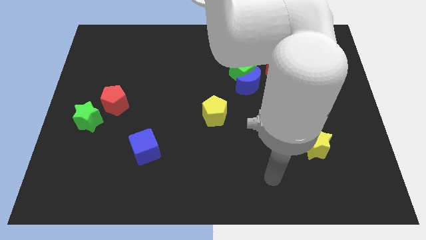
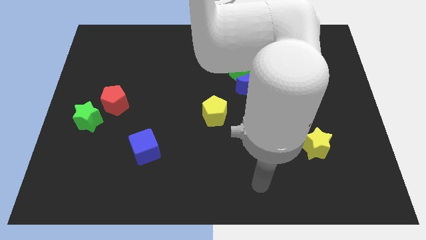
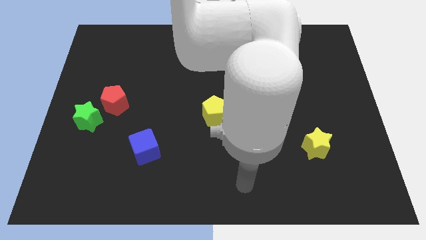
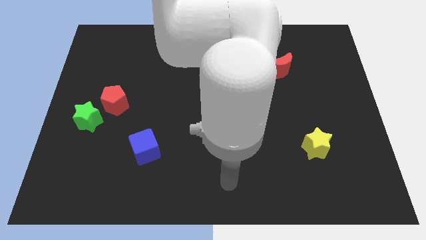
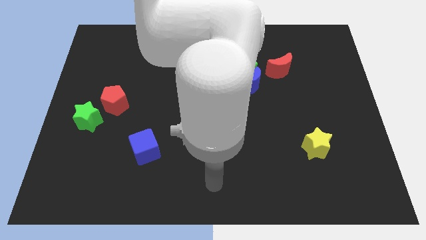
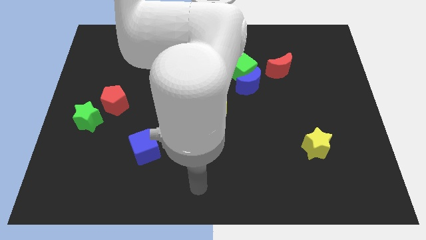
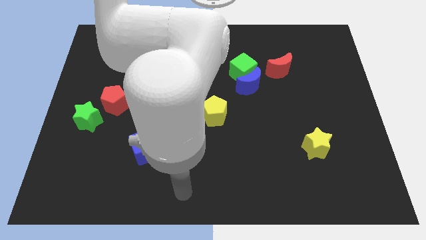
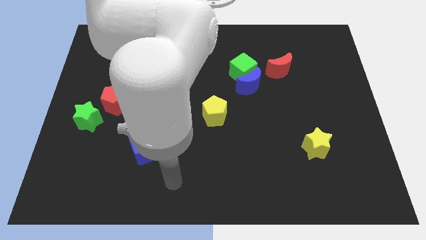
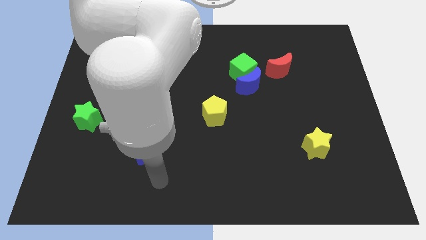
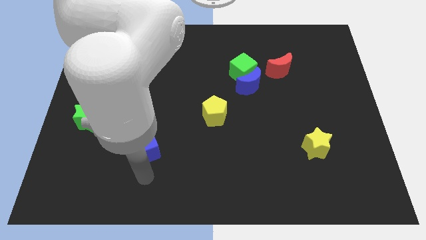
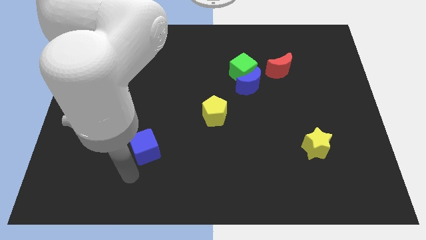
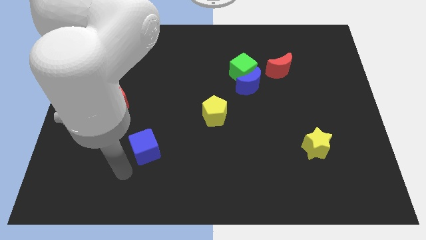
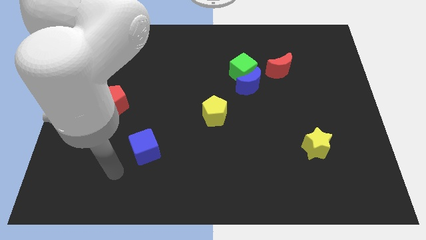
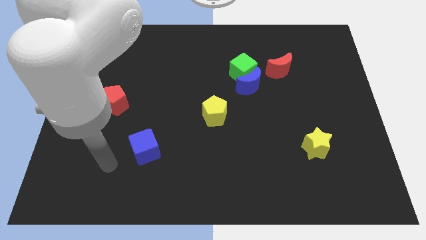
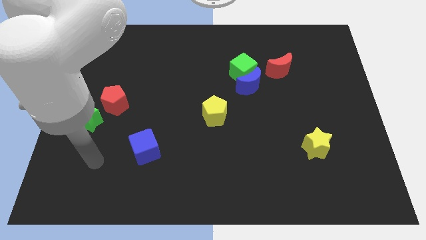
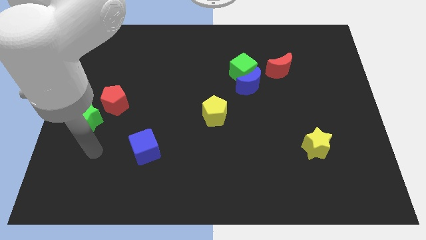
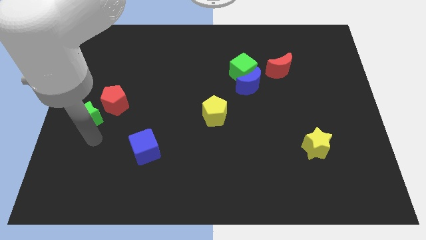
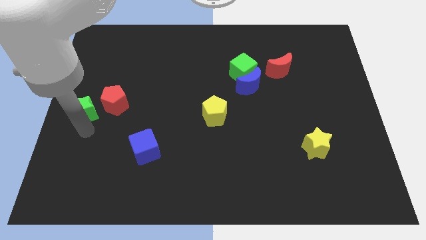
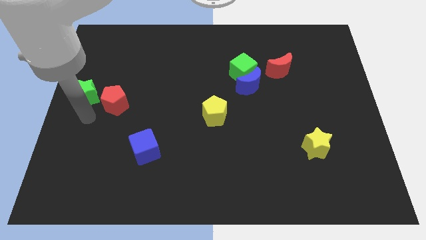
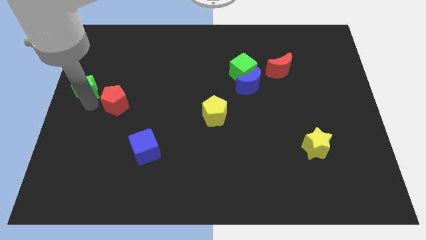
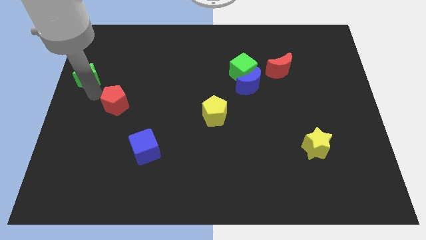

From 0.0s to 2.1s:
move the red pentagon away from the green star

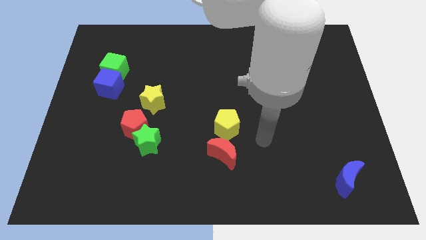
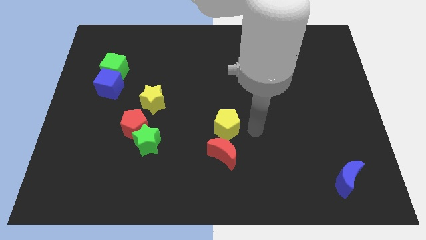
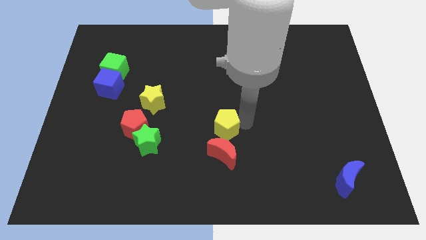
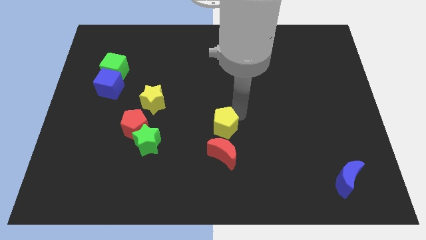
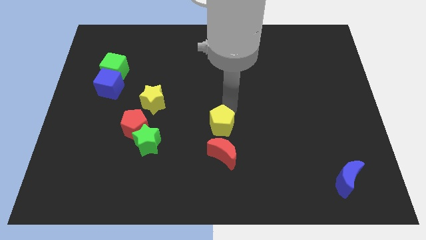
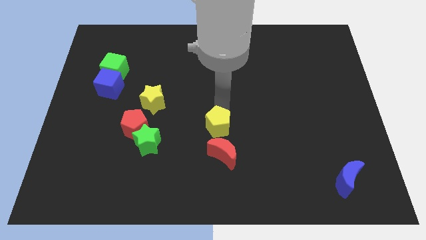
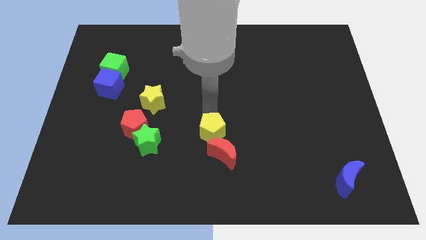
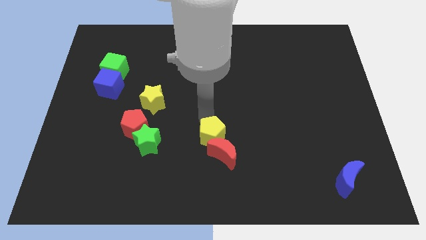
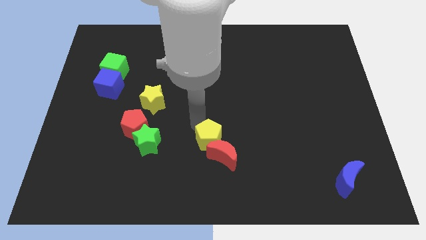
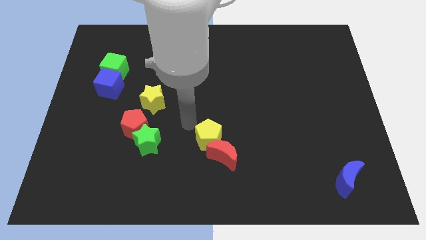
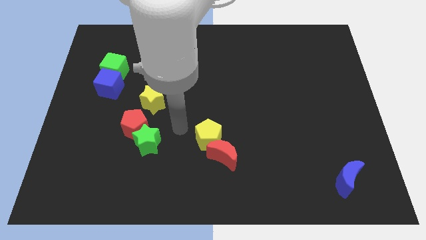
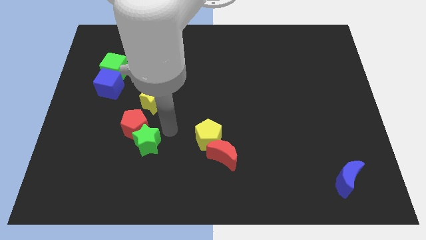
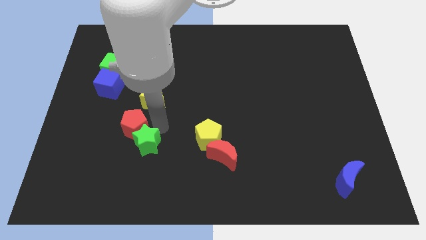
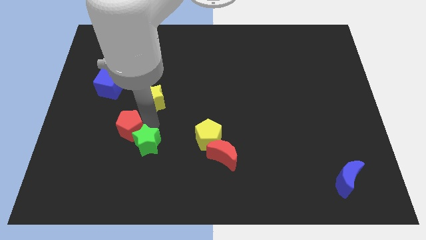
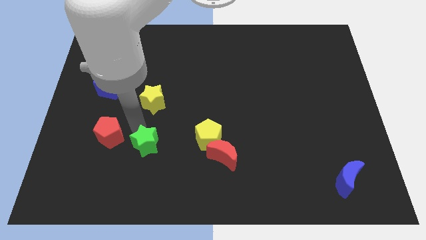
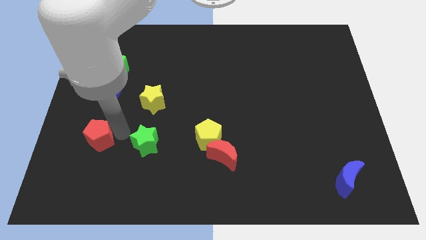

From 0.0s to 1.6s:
separate the green star from the red pentagon

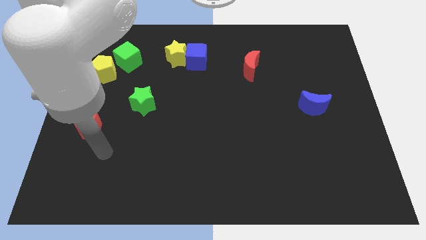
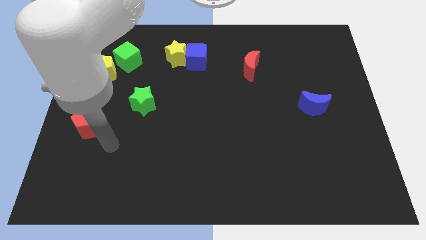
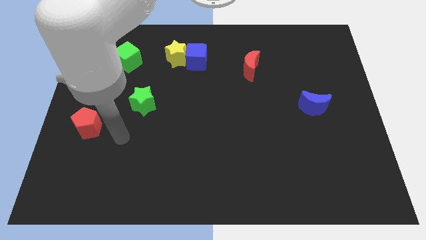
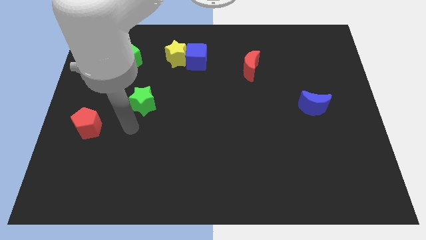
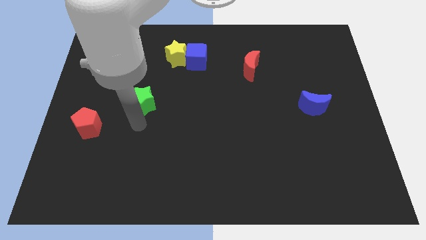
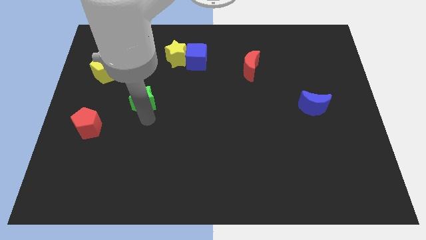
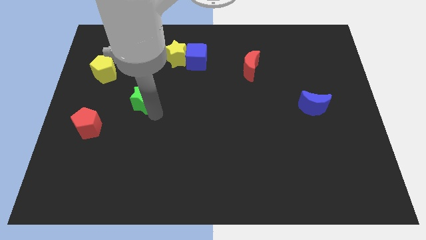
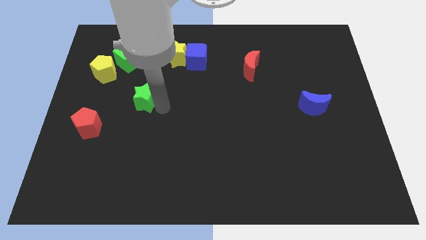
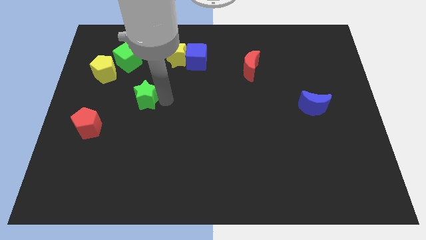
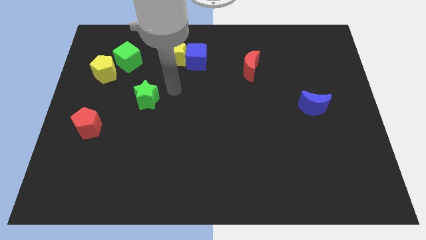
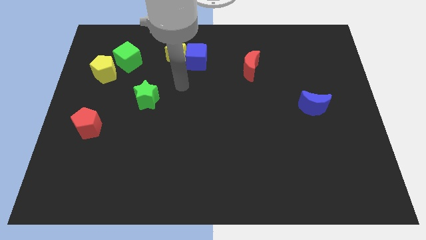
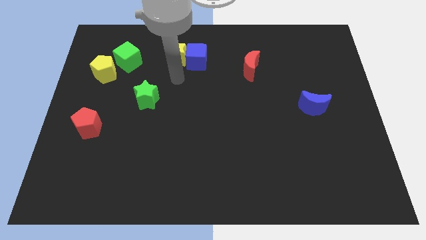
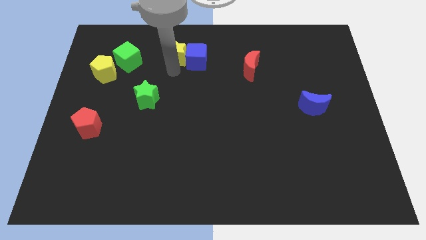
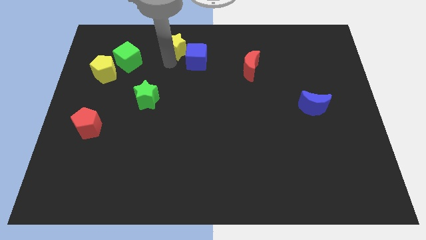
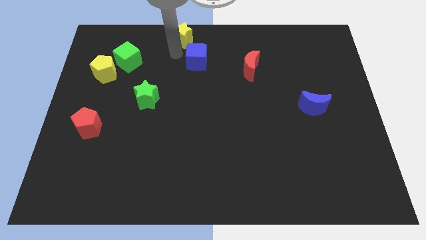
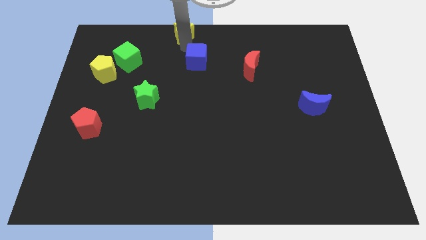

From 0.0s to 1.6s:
pull the blue cube apart from the yellow star

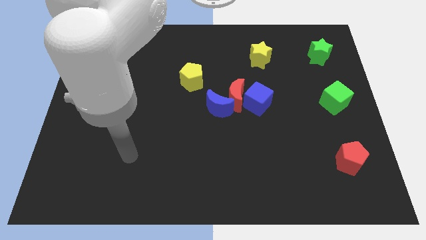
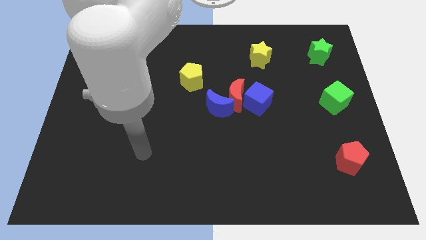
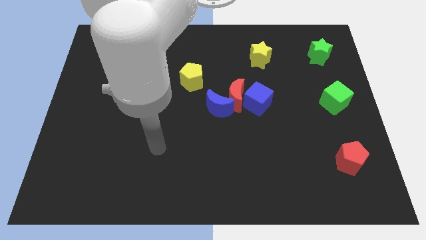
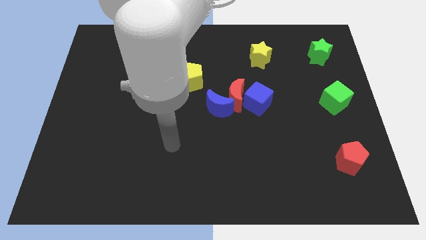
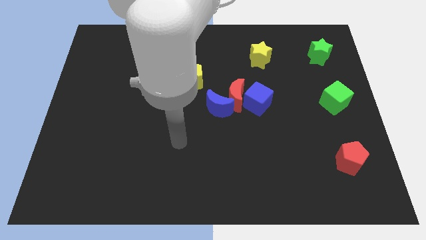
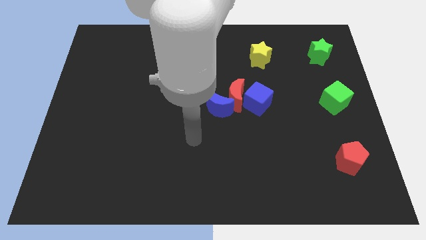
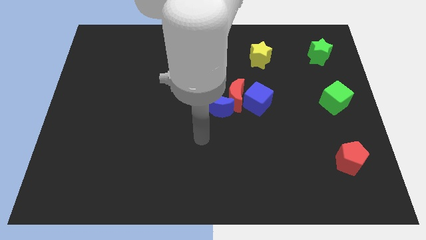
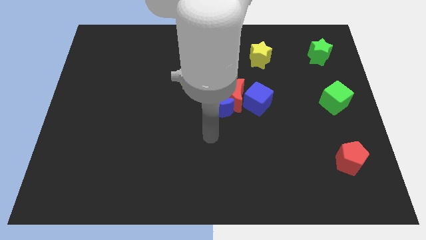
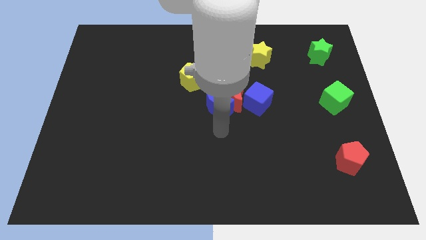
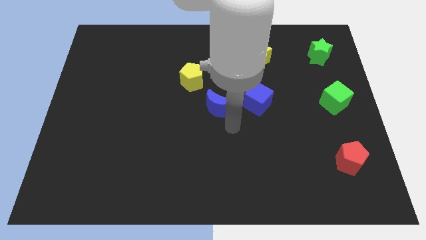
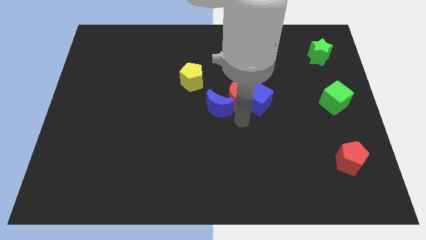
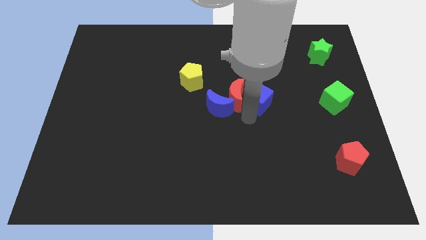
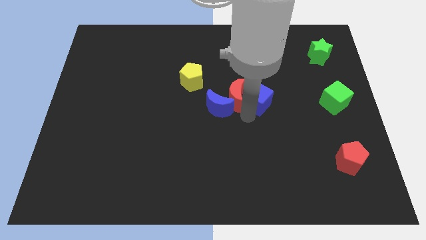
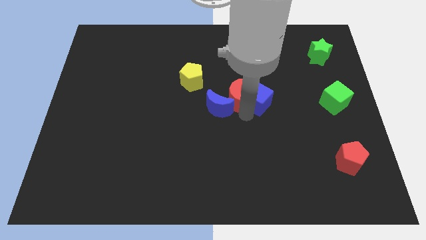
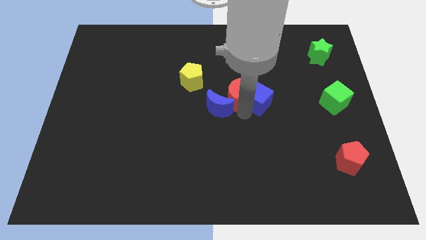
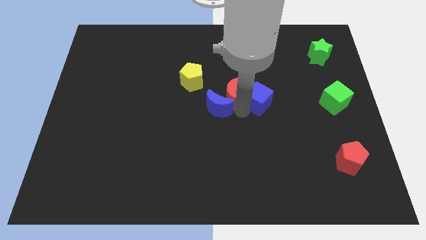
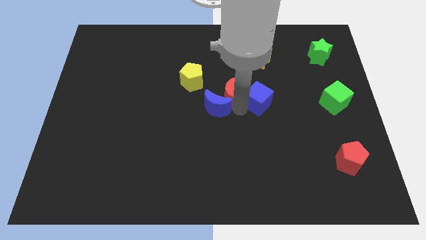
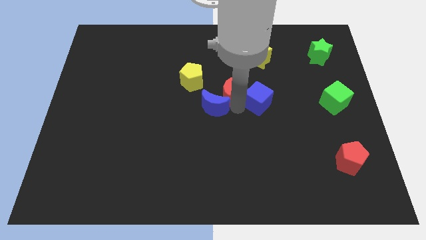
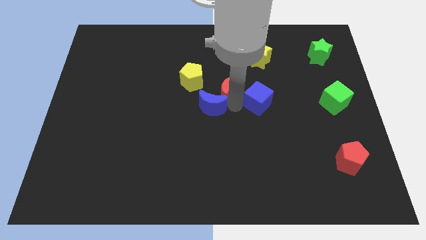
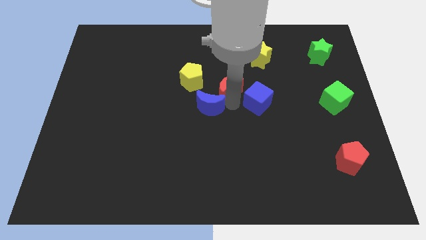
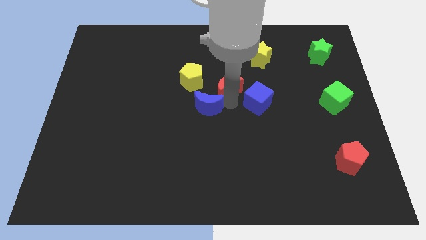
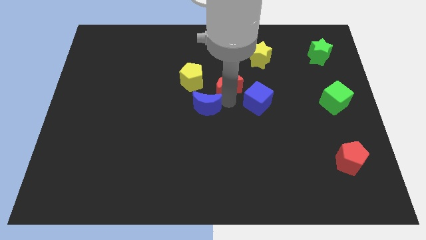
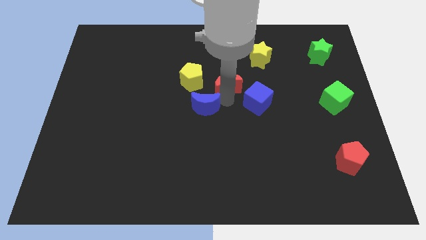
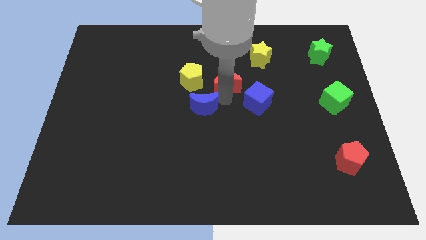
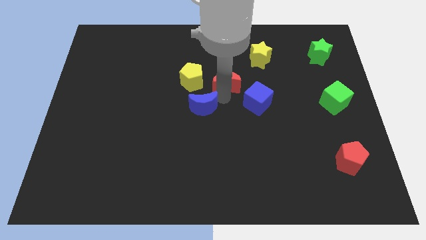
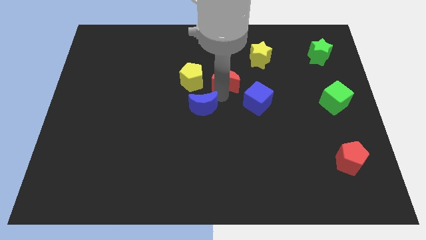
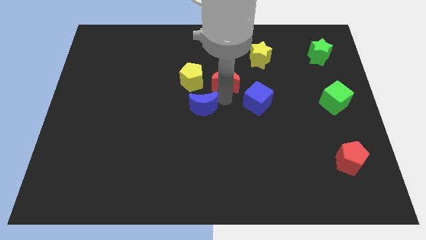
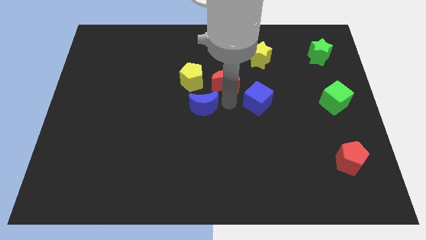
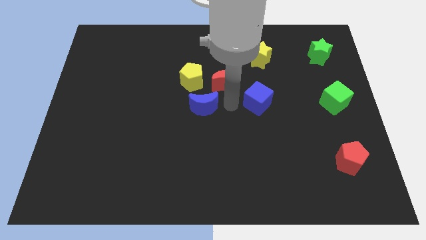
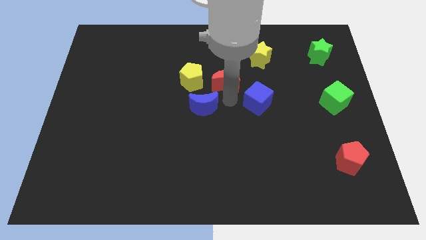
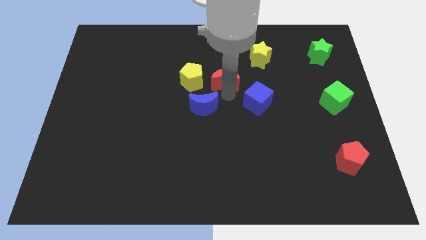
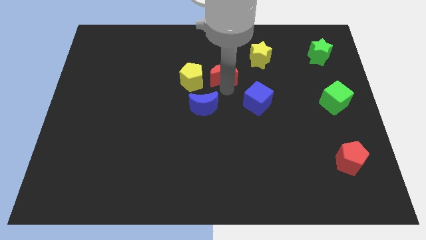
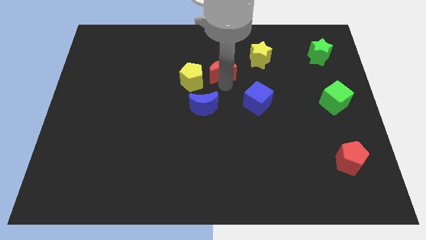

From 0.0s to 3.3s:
move the red moon away from the blue moon and blue cube

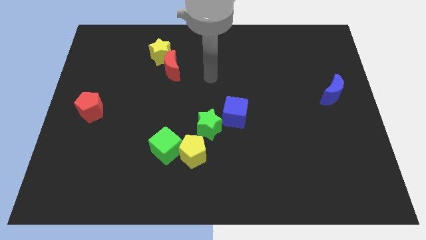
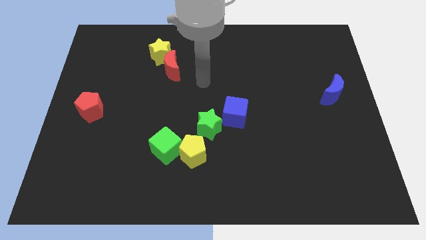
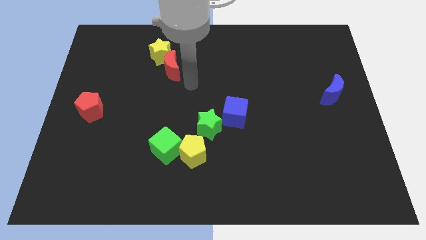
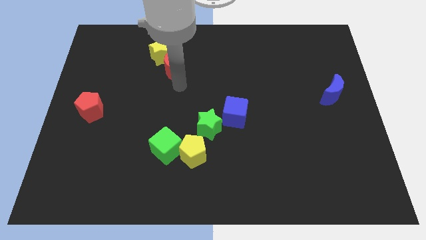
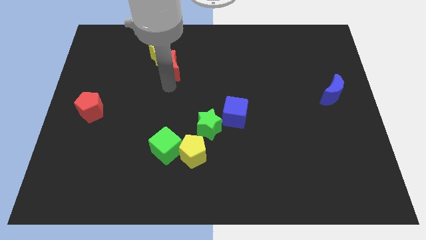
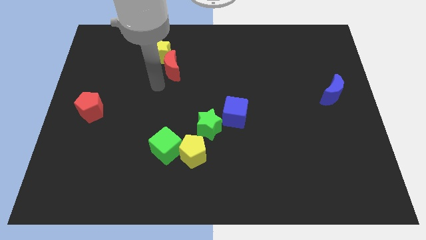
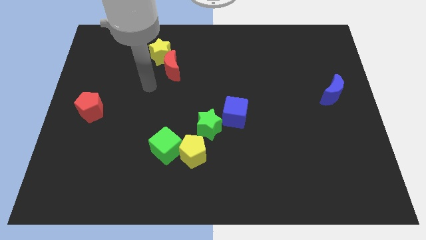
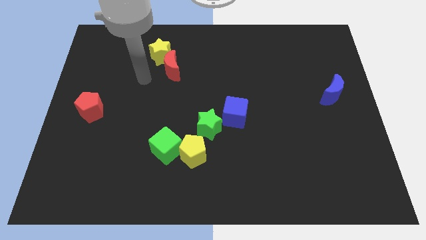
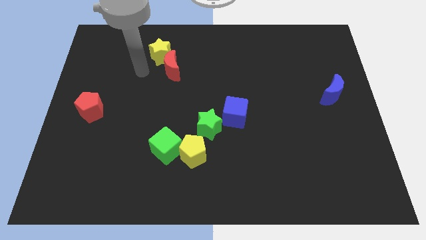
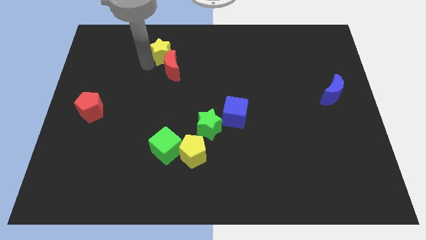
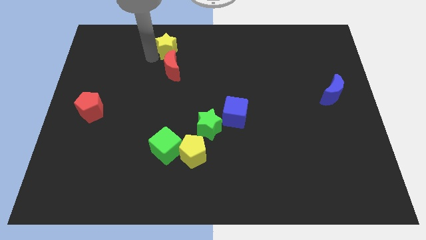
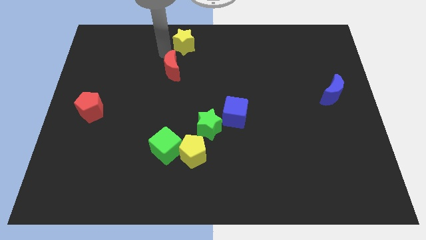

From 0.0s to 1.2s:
separate the red moon from the yellow star
